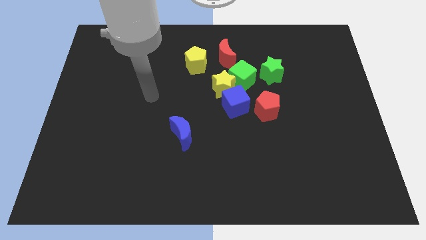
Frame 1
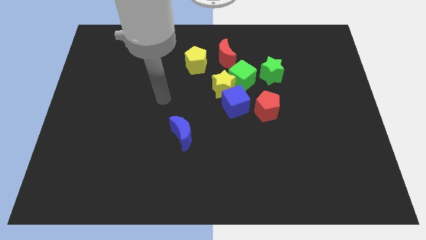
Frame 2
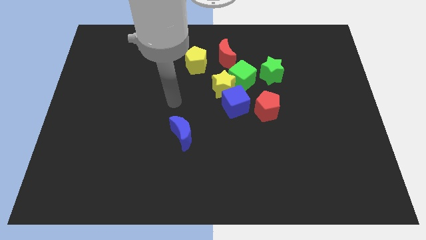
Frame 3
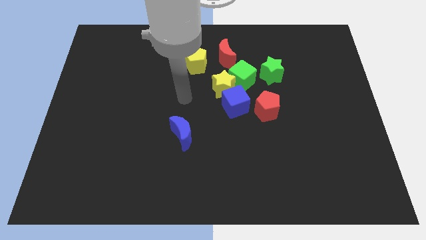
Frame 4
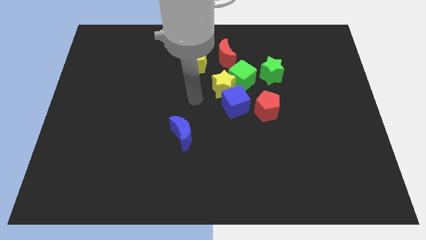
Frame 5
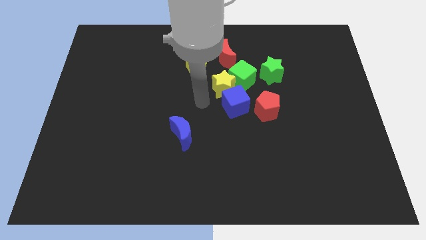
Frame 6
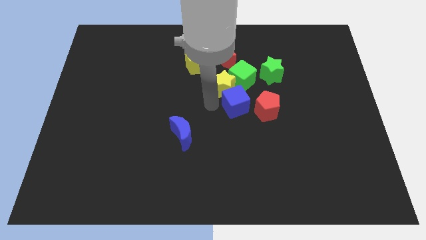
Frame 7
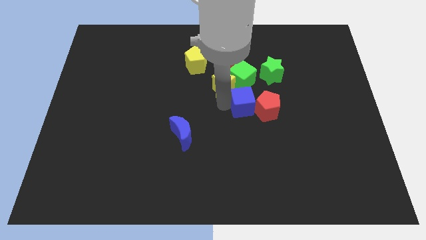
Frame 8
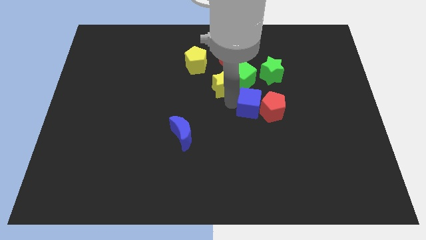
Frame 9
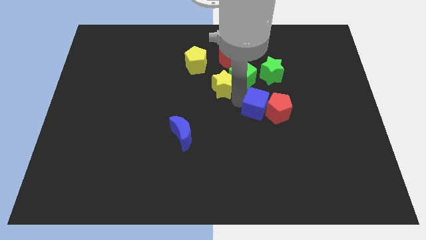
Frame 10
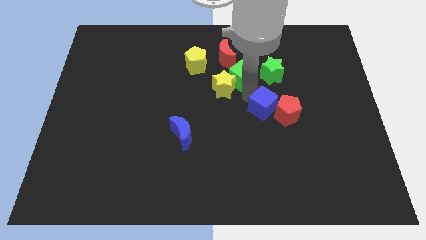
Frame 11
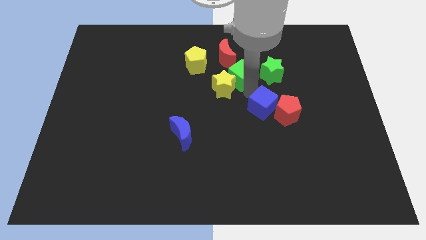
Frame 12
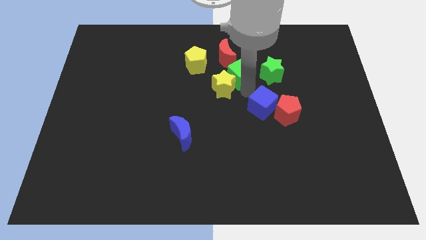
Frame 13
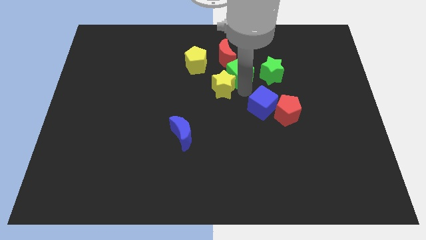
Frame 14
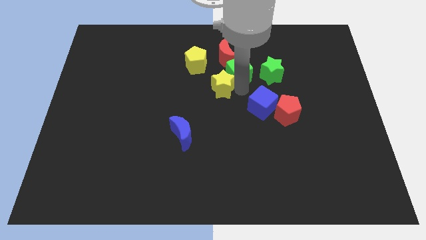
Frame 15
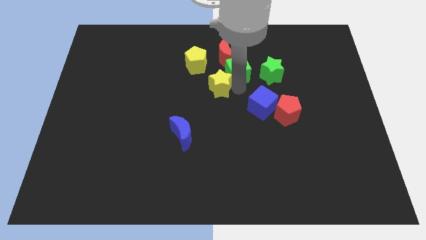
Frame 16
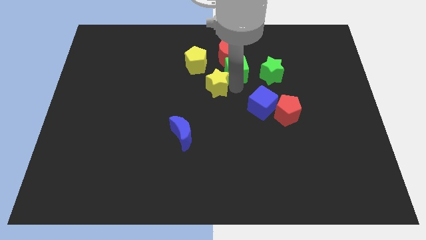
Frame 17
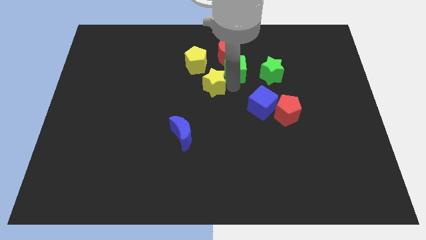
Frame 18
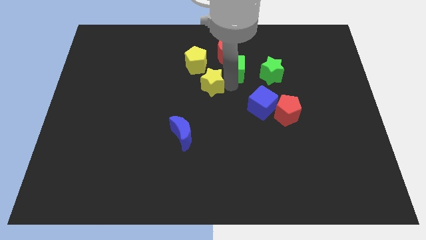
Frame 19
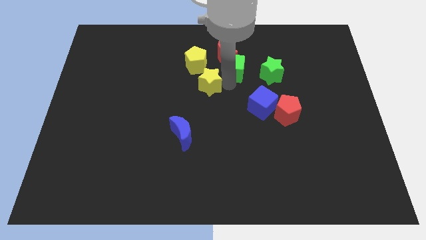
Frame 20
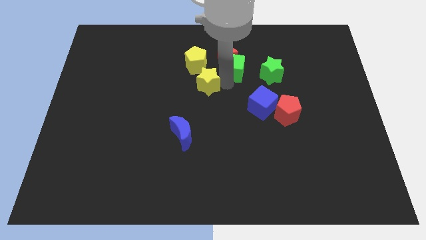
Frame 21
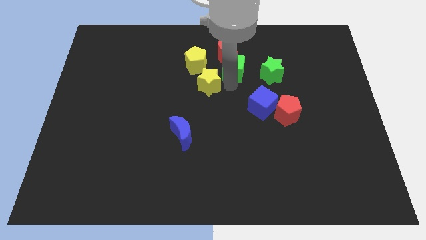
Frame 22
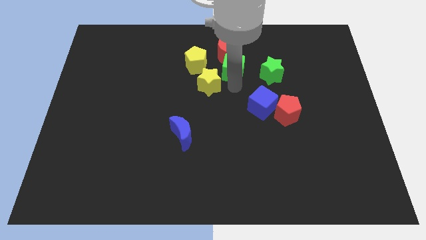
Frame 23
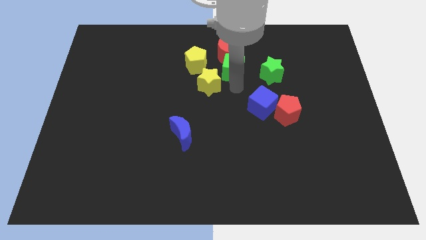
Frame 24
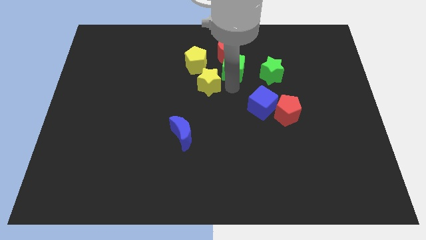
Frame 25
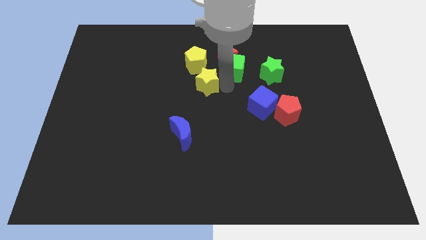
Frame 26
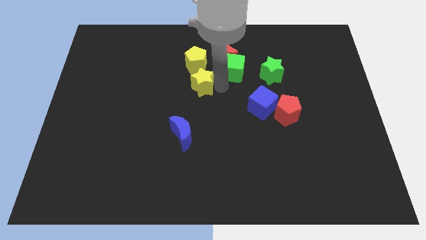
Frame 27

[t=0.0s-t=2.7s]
separate the yellow star from the green cube and blue cube

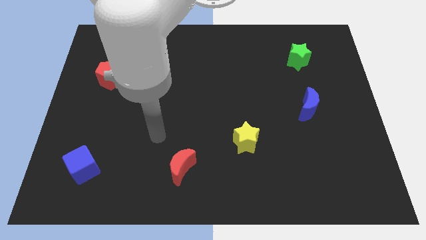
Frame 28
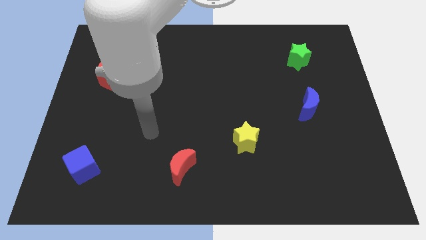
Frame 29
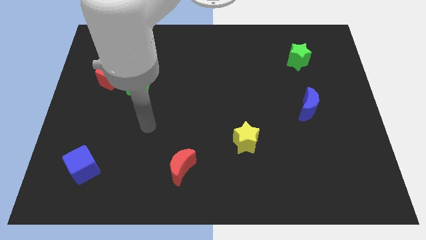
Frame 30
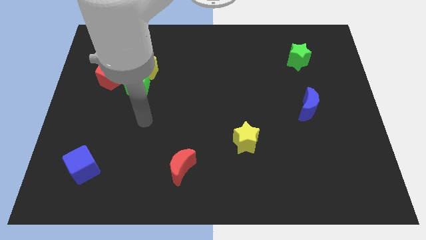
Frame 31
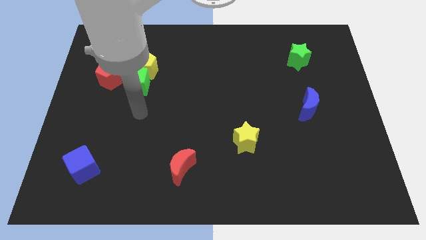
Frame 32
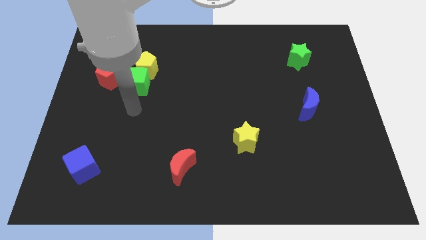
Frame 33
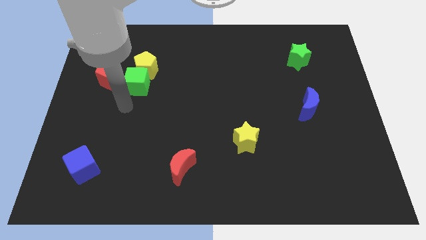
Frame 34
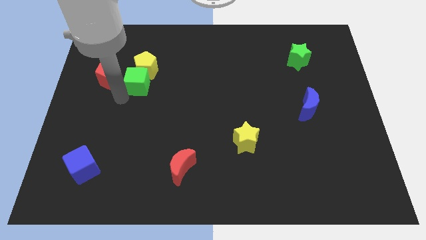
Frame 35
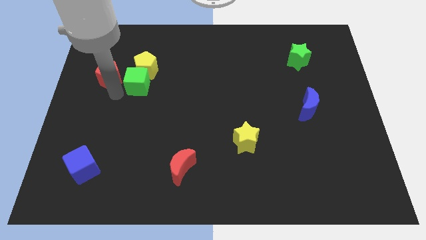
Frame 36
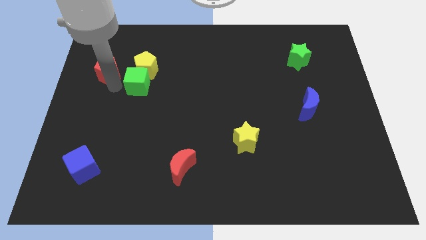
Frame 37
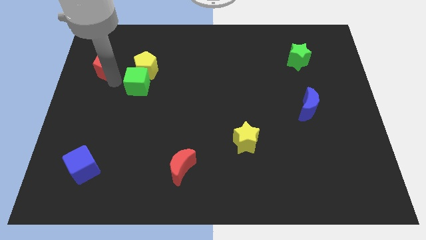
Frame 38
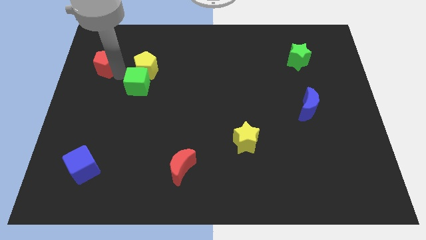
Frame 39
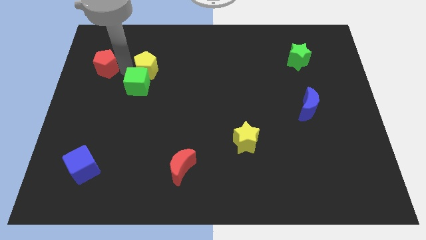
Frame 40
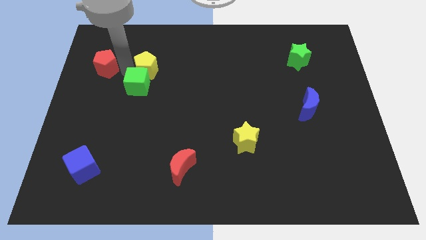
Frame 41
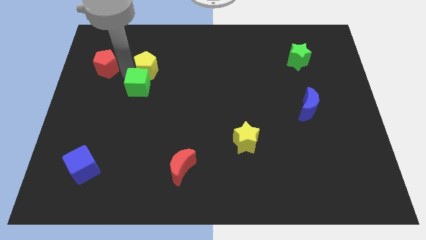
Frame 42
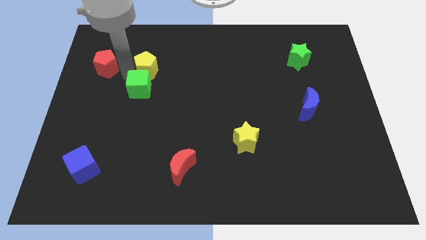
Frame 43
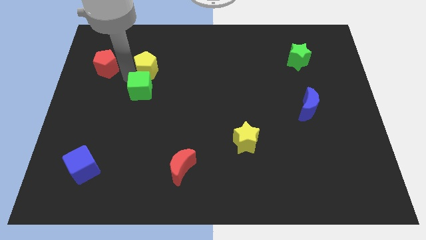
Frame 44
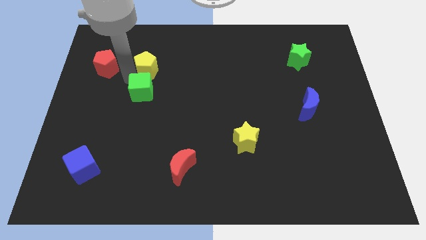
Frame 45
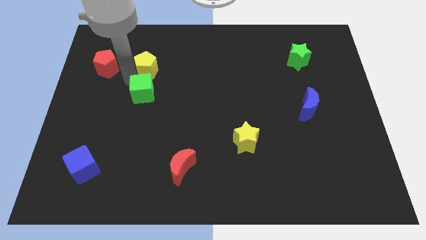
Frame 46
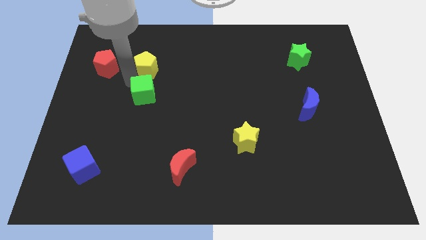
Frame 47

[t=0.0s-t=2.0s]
pull the green cube apart from the yellow pentagon and red pentagon

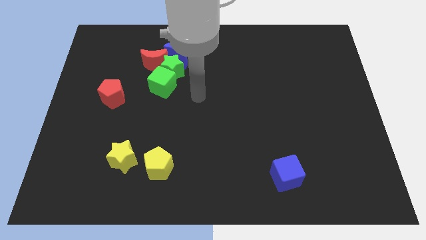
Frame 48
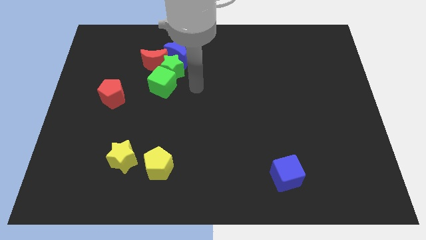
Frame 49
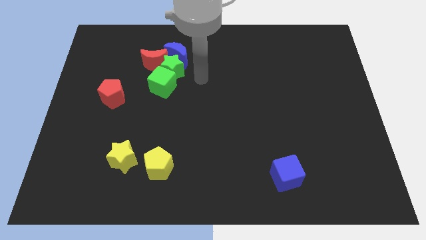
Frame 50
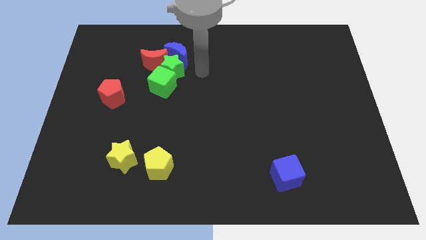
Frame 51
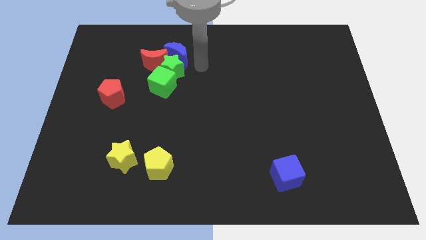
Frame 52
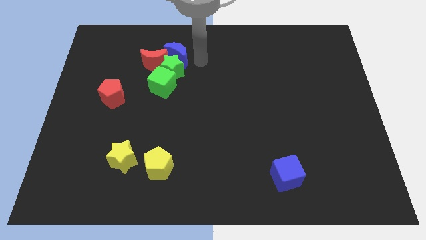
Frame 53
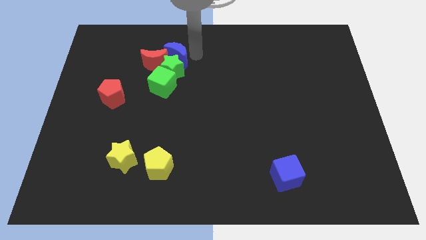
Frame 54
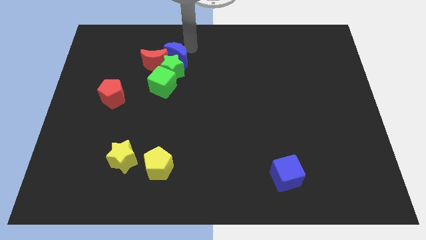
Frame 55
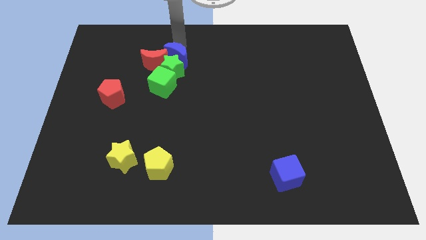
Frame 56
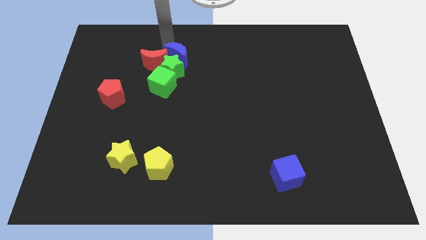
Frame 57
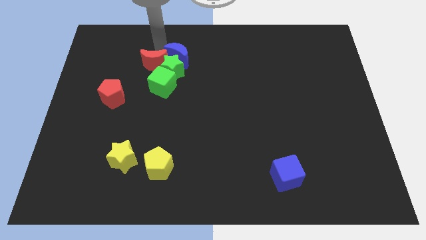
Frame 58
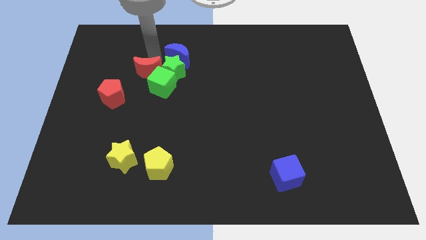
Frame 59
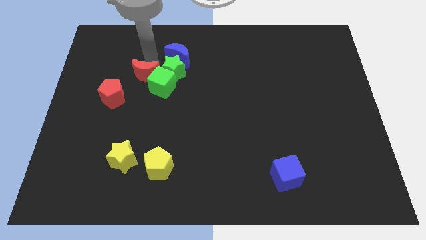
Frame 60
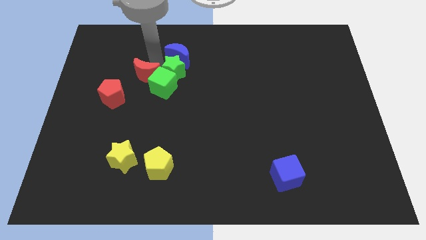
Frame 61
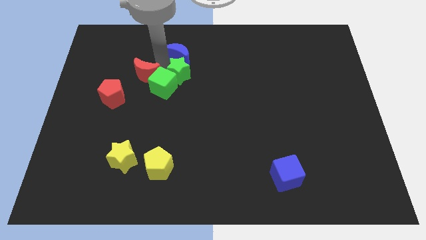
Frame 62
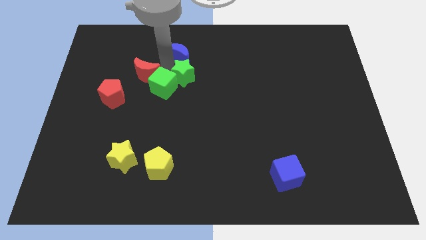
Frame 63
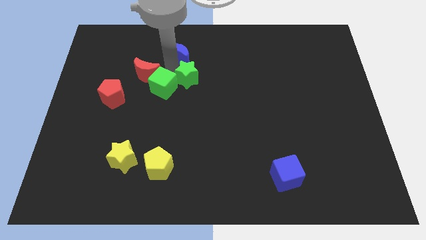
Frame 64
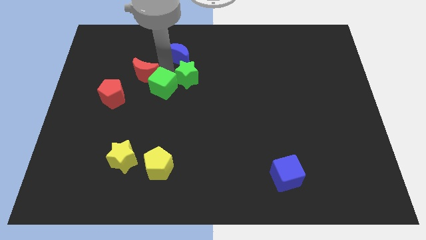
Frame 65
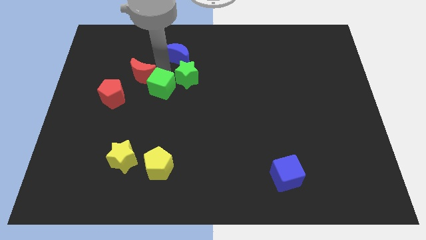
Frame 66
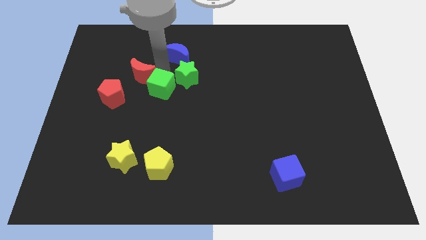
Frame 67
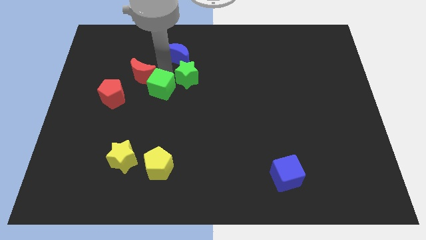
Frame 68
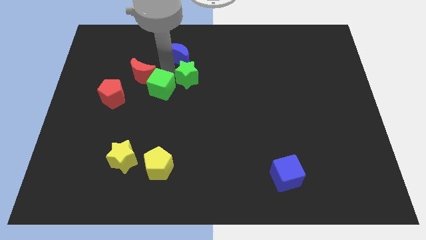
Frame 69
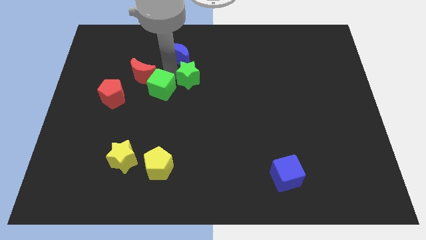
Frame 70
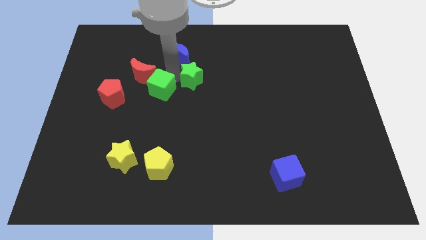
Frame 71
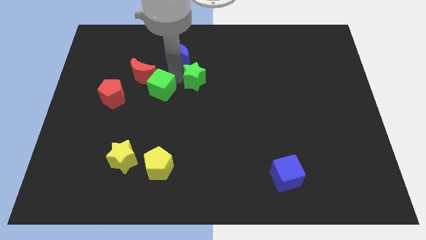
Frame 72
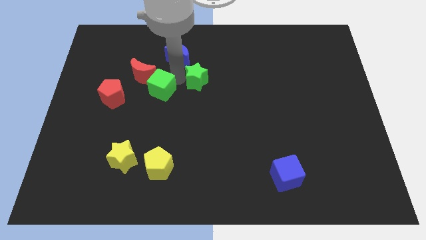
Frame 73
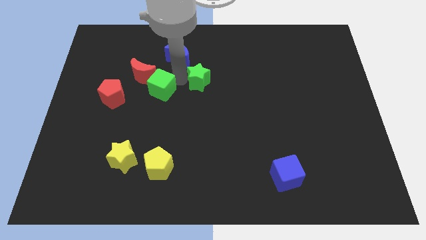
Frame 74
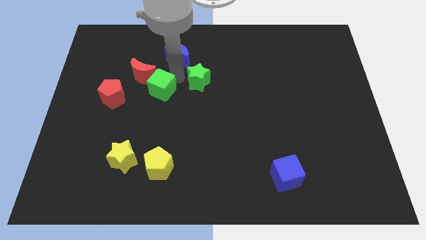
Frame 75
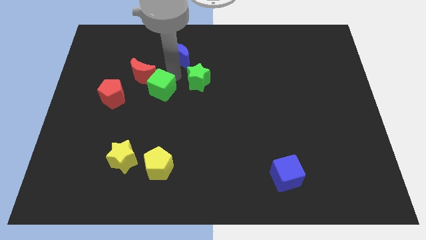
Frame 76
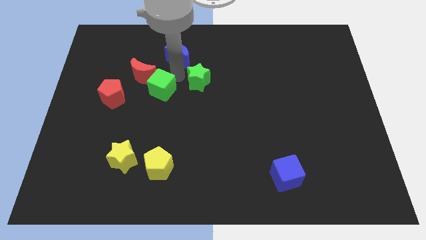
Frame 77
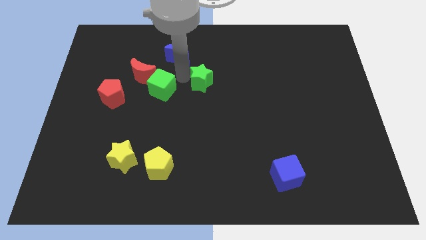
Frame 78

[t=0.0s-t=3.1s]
separate the green star from the blue moon, green cube, and red moon

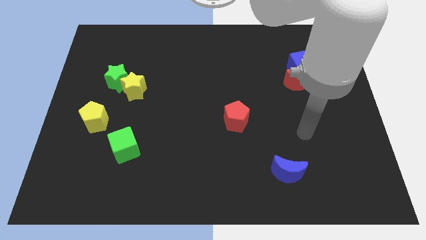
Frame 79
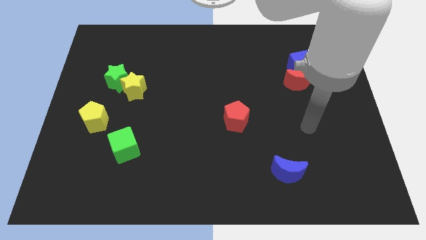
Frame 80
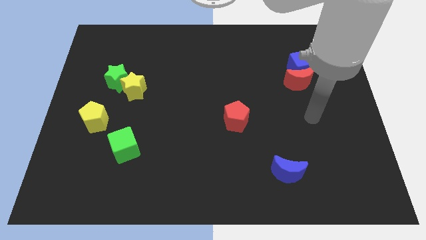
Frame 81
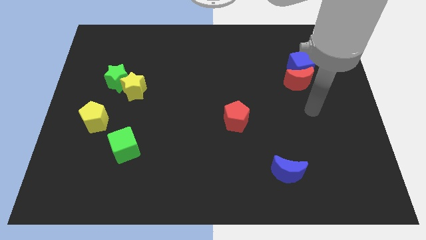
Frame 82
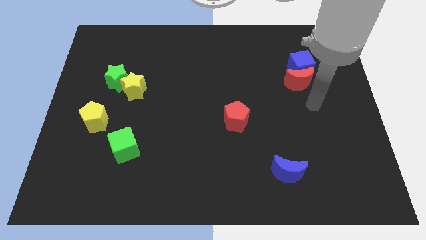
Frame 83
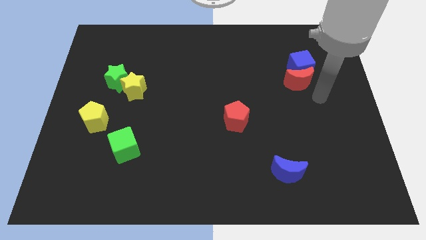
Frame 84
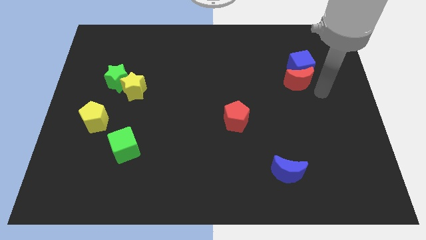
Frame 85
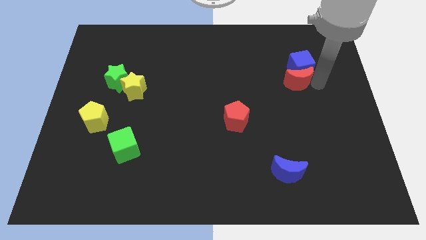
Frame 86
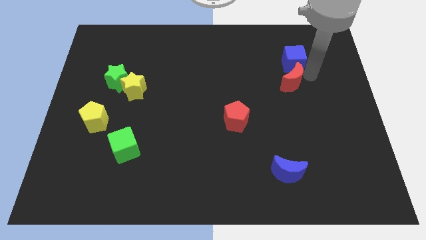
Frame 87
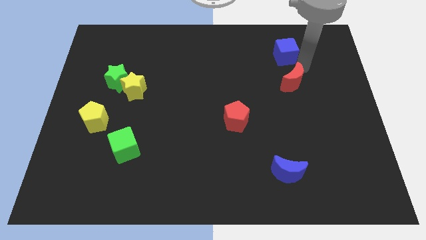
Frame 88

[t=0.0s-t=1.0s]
separate the red moon from the blue cube

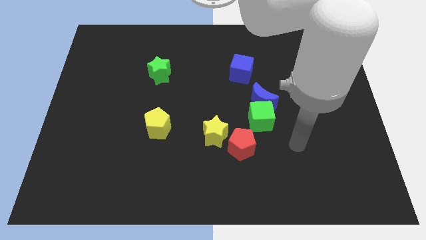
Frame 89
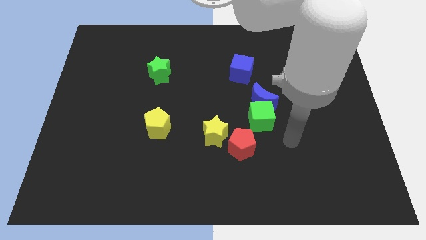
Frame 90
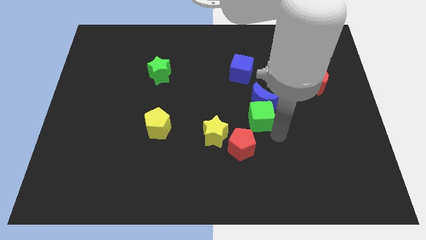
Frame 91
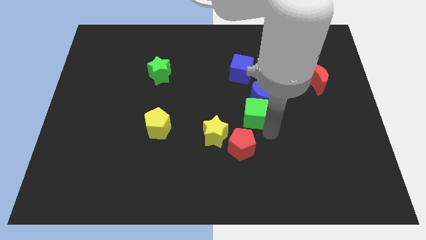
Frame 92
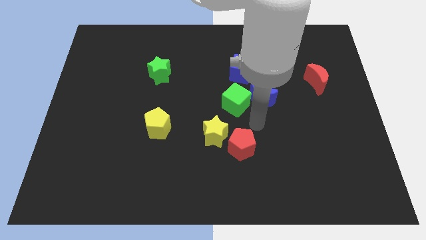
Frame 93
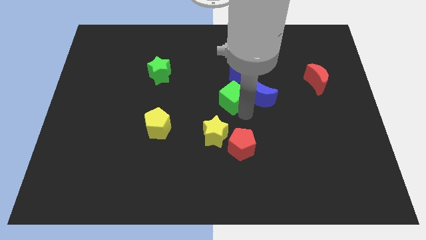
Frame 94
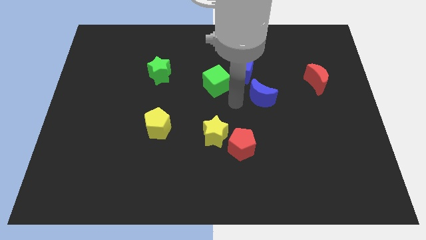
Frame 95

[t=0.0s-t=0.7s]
pull the blue moon apart from the green cube
